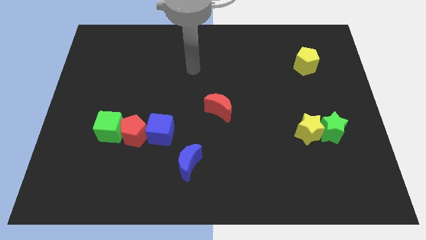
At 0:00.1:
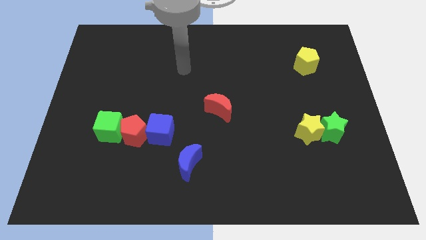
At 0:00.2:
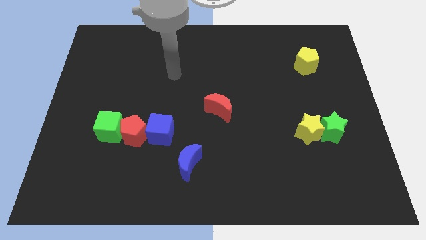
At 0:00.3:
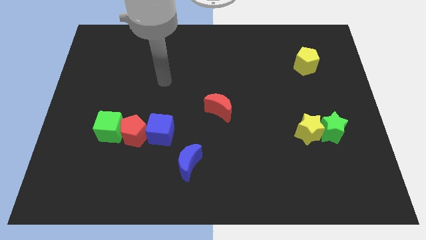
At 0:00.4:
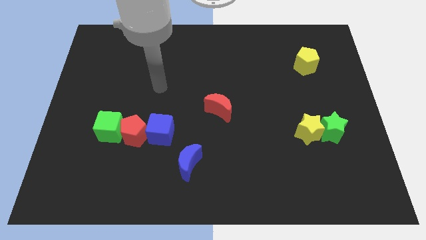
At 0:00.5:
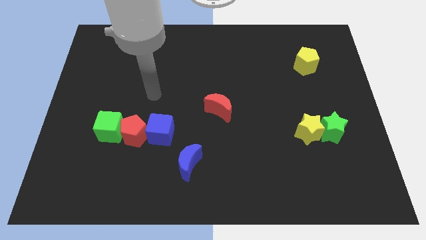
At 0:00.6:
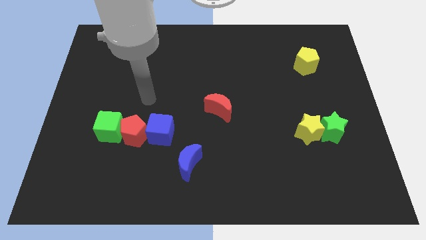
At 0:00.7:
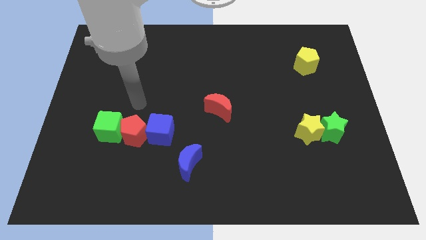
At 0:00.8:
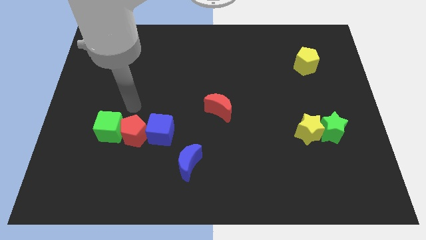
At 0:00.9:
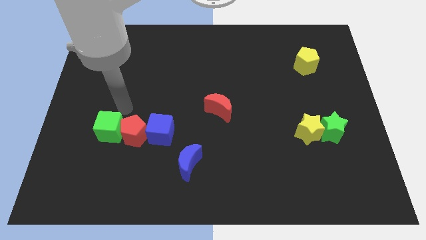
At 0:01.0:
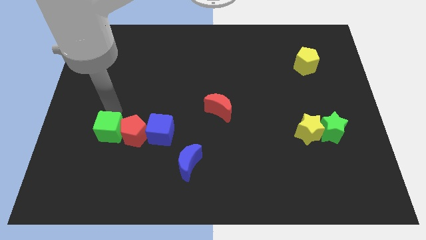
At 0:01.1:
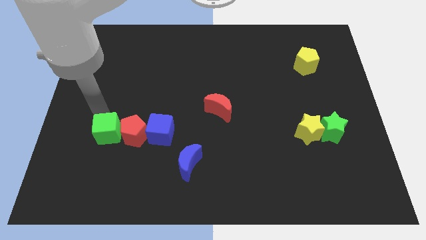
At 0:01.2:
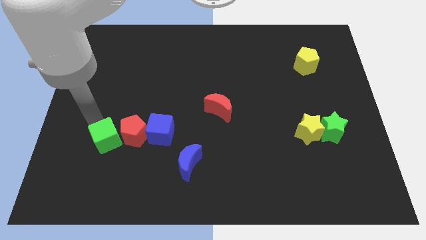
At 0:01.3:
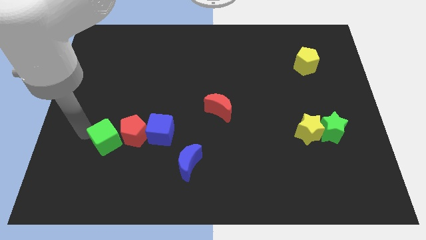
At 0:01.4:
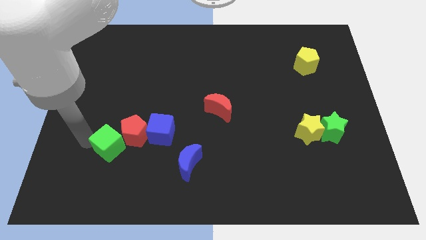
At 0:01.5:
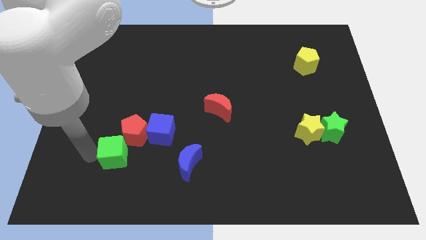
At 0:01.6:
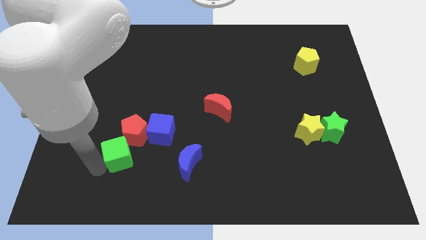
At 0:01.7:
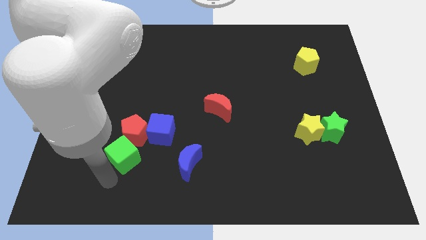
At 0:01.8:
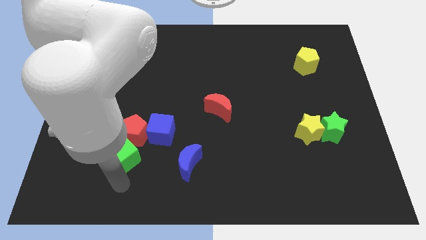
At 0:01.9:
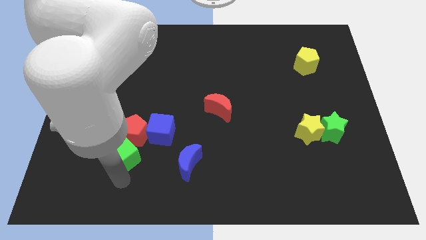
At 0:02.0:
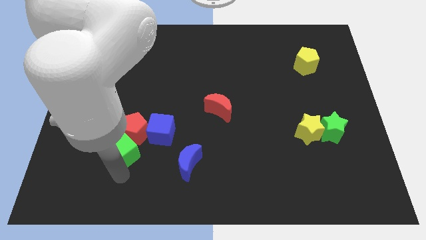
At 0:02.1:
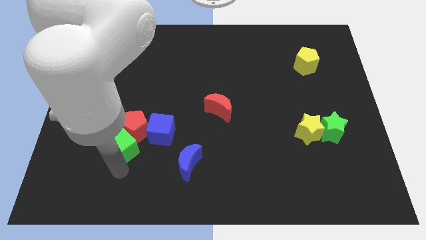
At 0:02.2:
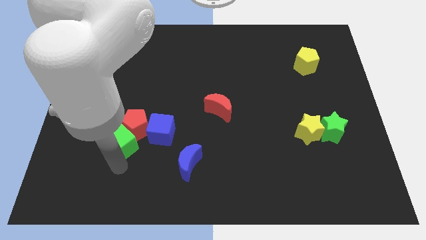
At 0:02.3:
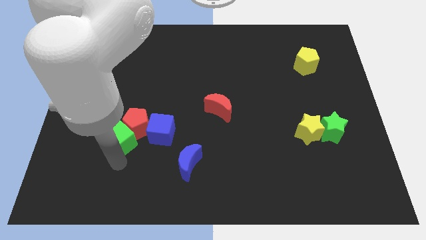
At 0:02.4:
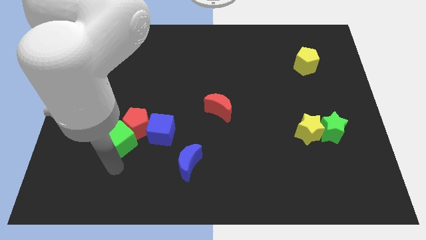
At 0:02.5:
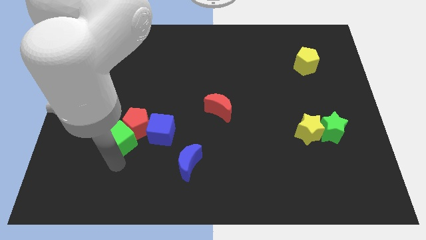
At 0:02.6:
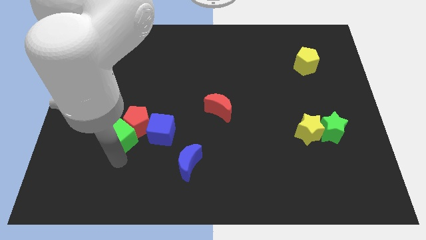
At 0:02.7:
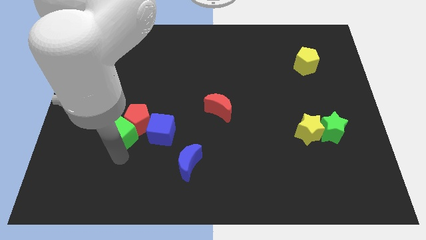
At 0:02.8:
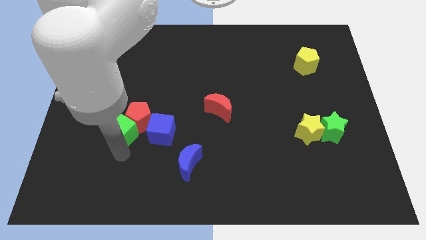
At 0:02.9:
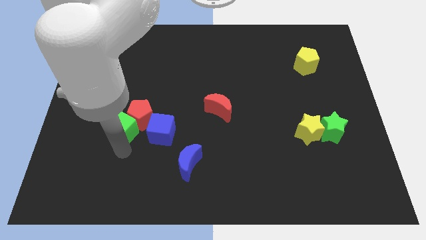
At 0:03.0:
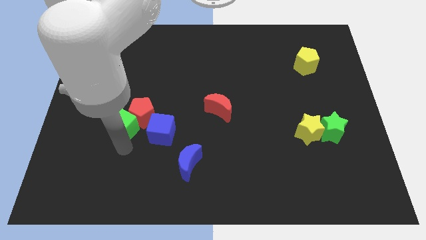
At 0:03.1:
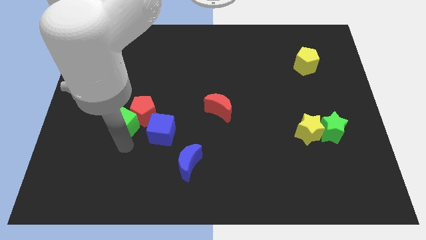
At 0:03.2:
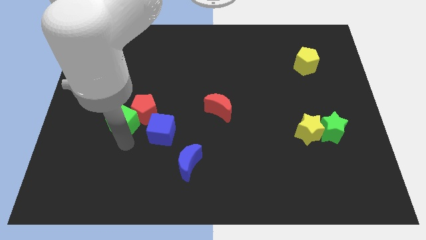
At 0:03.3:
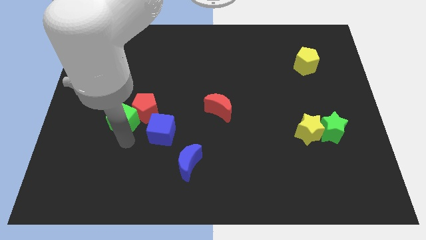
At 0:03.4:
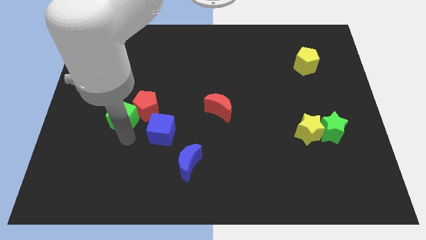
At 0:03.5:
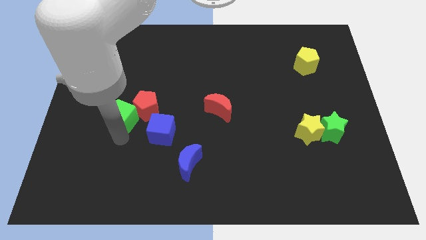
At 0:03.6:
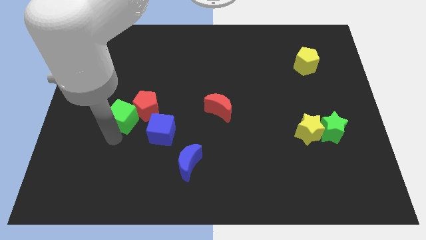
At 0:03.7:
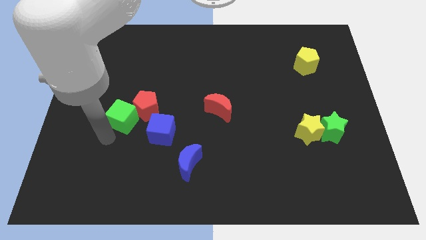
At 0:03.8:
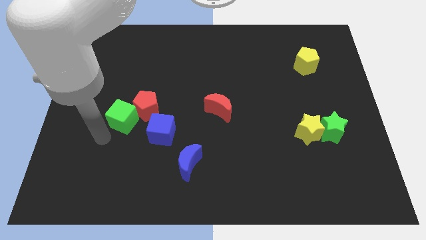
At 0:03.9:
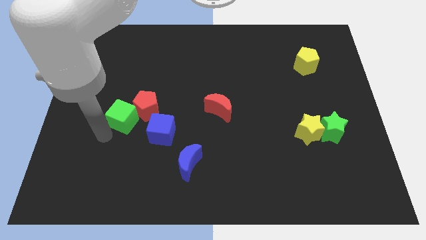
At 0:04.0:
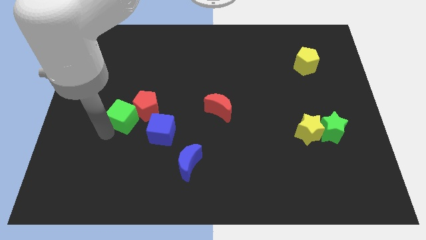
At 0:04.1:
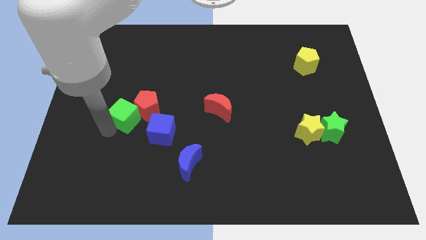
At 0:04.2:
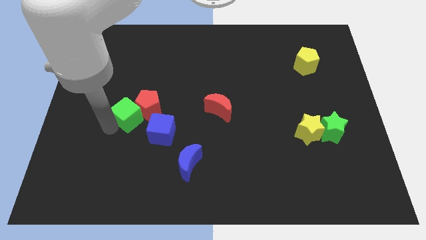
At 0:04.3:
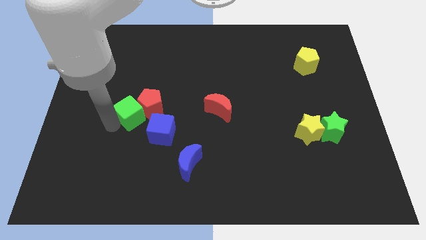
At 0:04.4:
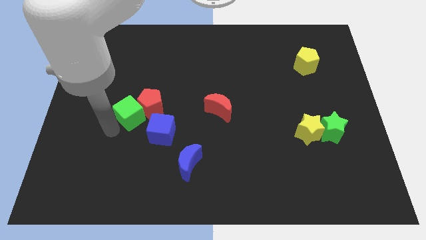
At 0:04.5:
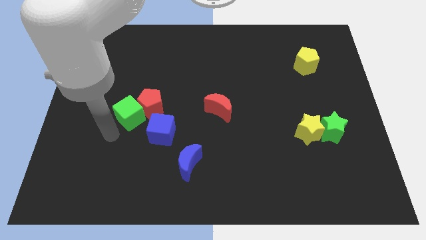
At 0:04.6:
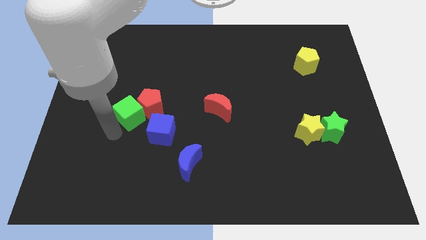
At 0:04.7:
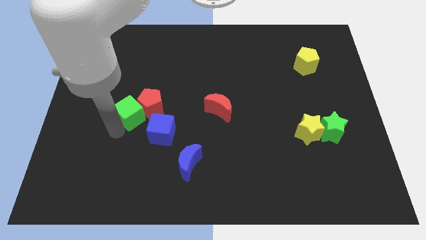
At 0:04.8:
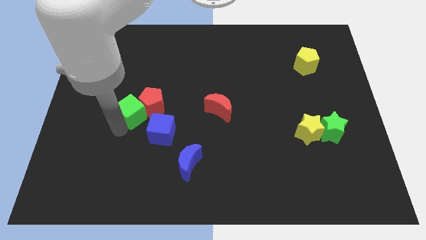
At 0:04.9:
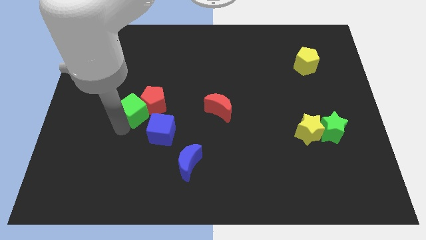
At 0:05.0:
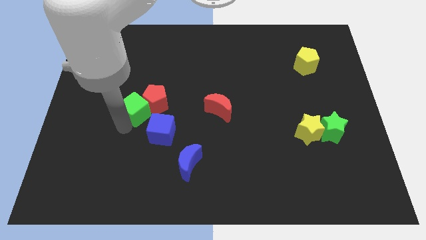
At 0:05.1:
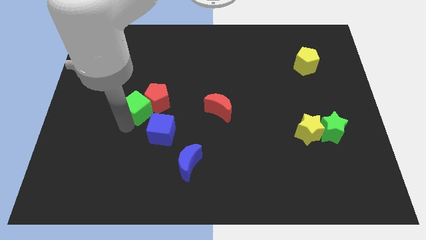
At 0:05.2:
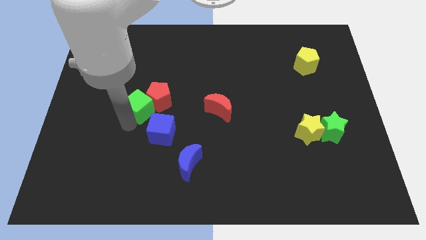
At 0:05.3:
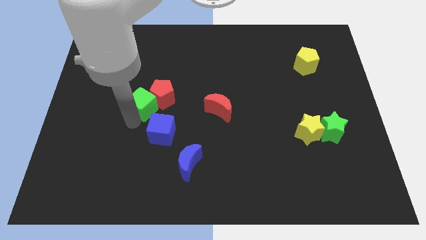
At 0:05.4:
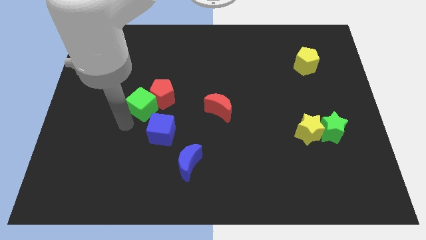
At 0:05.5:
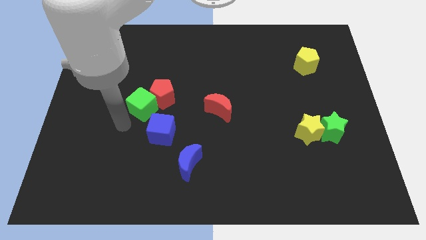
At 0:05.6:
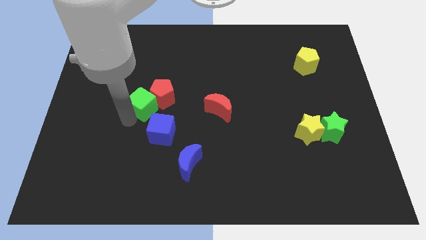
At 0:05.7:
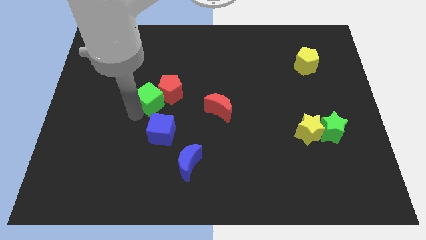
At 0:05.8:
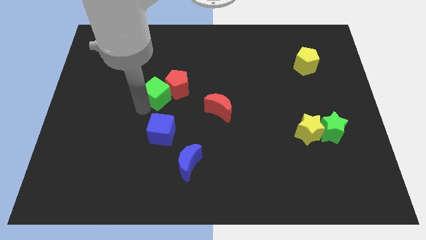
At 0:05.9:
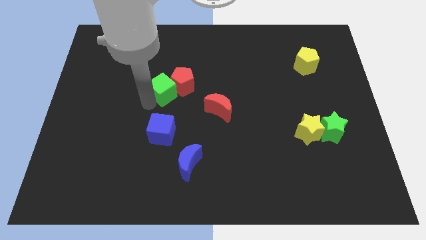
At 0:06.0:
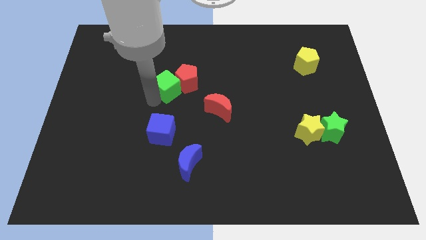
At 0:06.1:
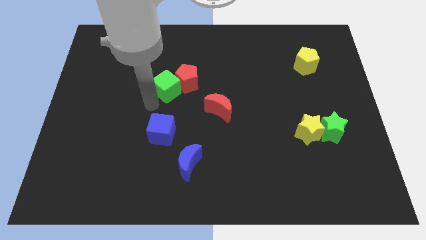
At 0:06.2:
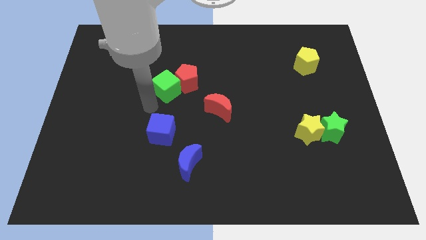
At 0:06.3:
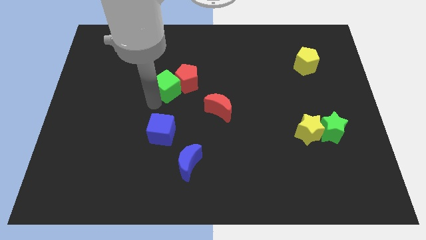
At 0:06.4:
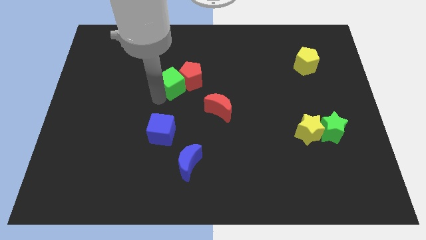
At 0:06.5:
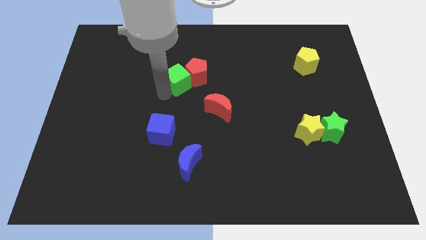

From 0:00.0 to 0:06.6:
push the green cube upwards and right

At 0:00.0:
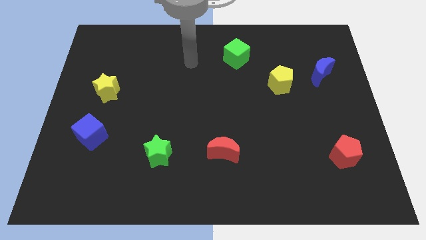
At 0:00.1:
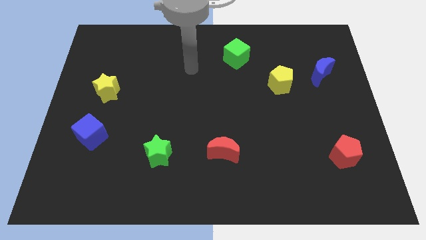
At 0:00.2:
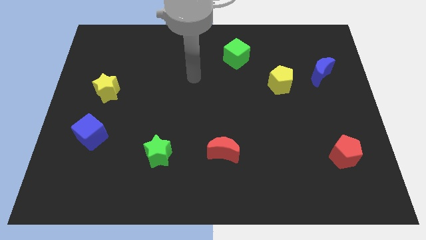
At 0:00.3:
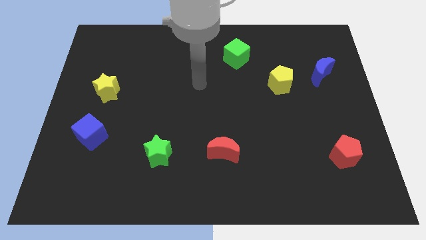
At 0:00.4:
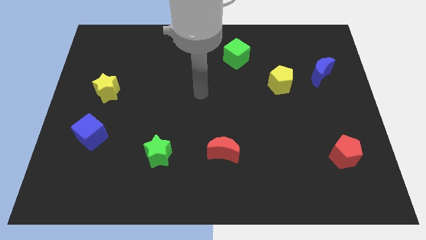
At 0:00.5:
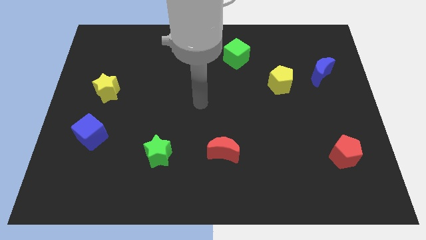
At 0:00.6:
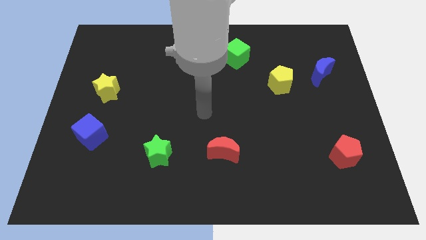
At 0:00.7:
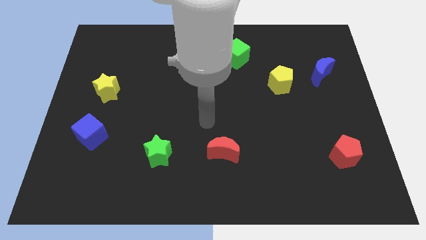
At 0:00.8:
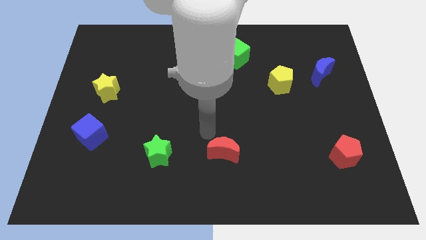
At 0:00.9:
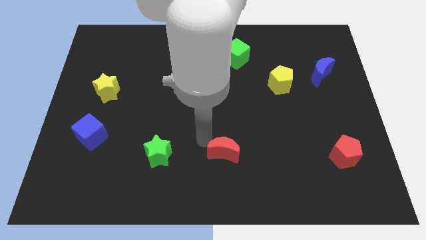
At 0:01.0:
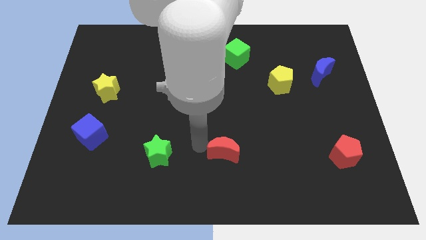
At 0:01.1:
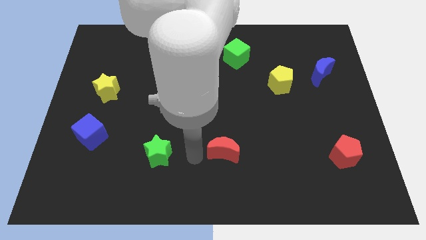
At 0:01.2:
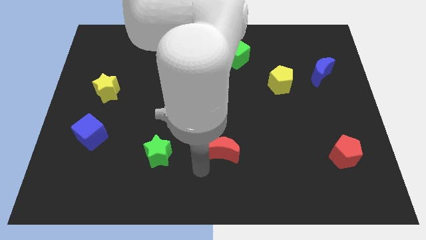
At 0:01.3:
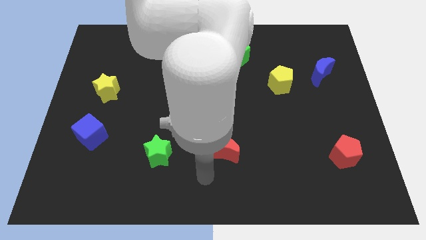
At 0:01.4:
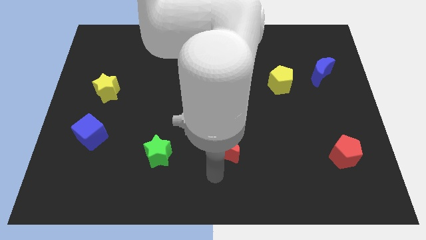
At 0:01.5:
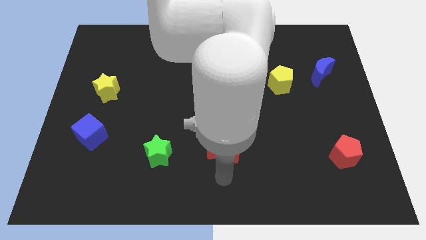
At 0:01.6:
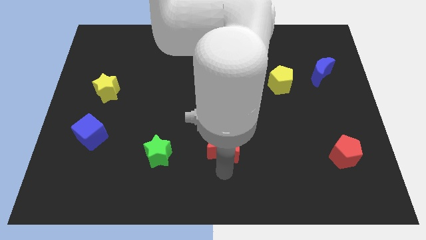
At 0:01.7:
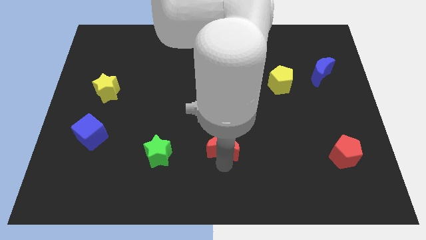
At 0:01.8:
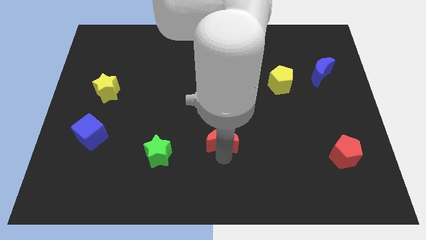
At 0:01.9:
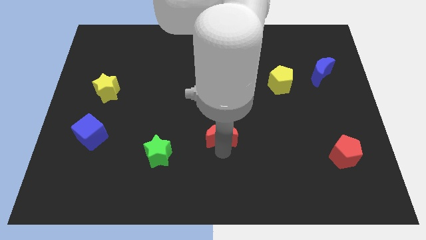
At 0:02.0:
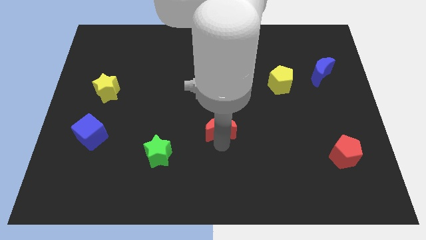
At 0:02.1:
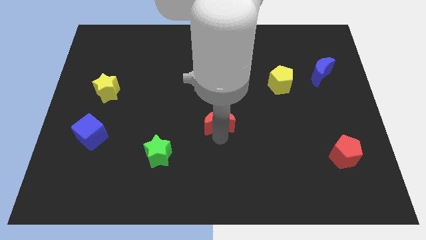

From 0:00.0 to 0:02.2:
slightly push the red moon upwards
